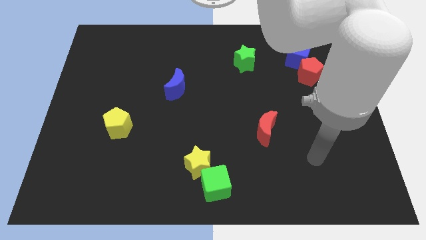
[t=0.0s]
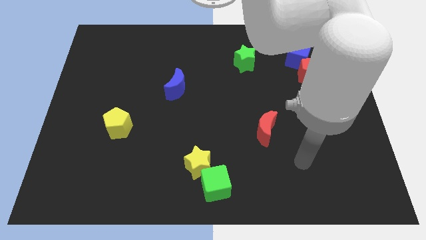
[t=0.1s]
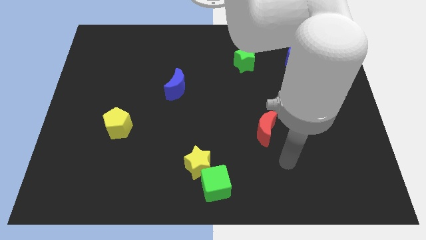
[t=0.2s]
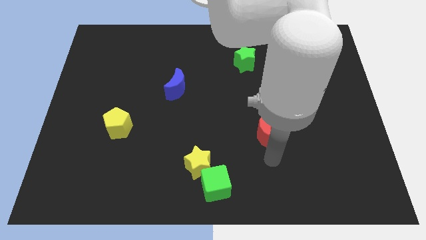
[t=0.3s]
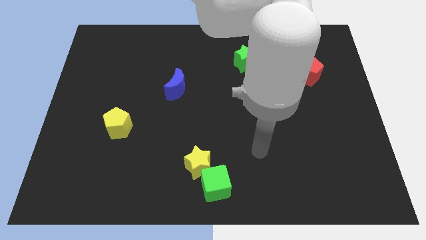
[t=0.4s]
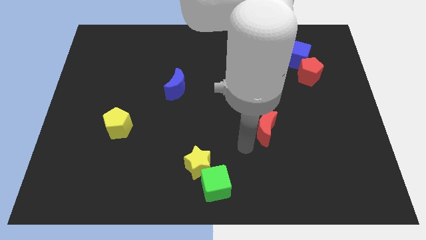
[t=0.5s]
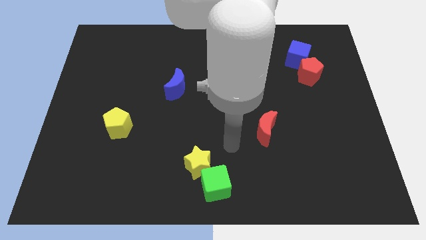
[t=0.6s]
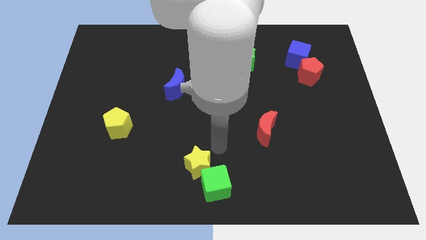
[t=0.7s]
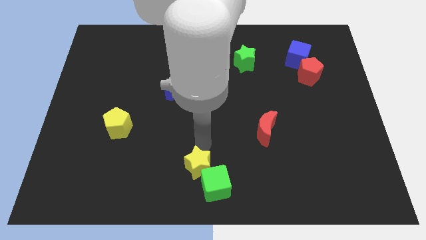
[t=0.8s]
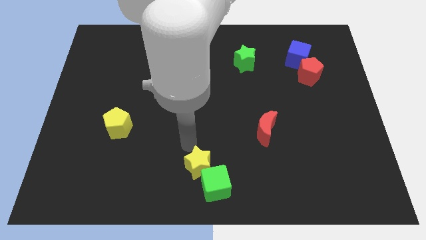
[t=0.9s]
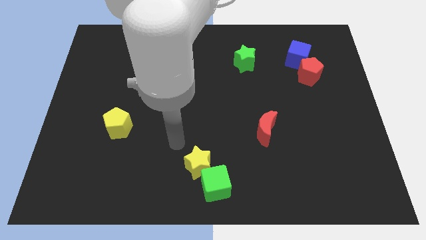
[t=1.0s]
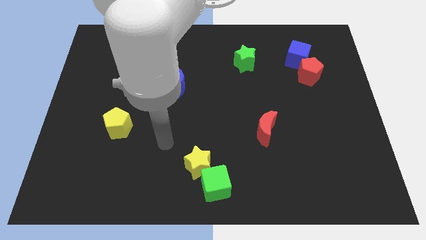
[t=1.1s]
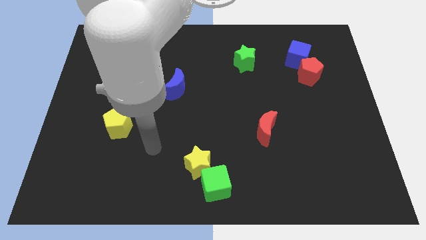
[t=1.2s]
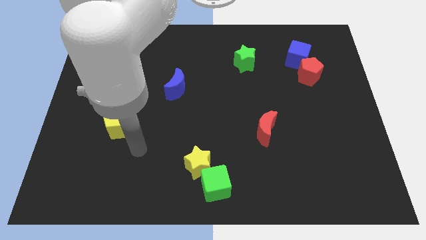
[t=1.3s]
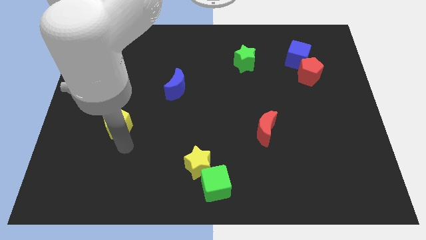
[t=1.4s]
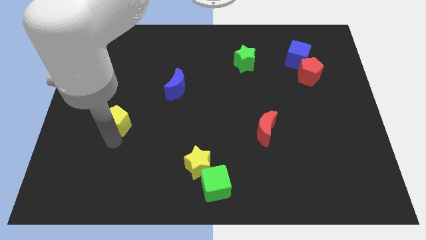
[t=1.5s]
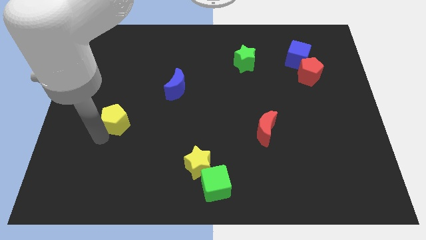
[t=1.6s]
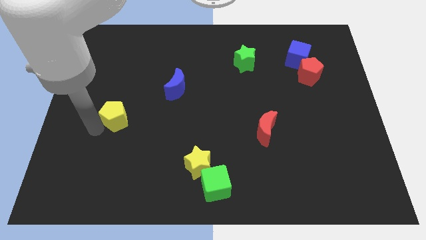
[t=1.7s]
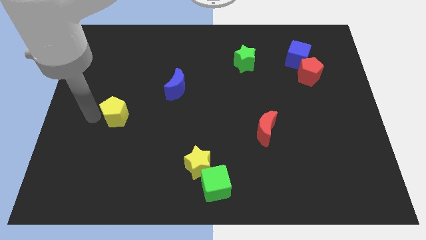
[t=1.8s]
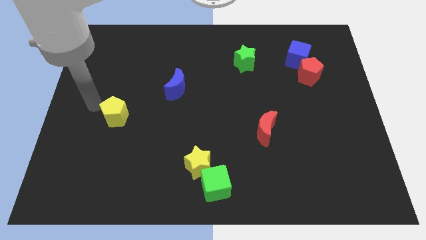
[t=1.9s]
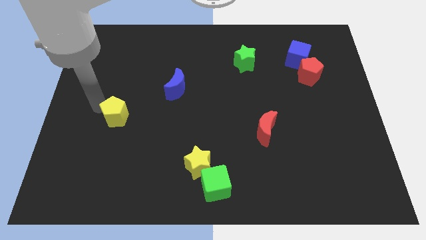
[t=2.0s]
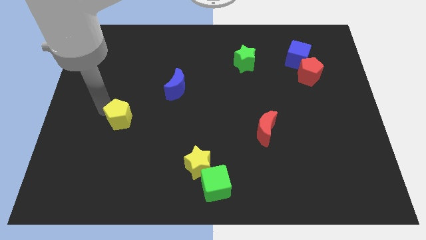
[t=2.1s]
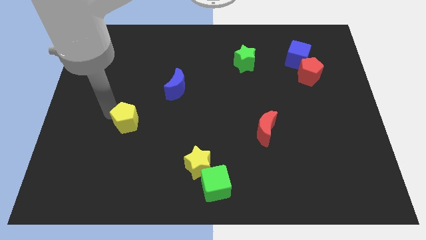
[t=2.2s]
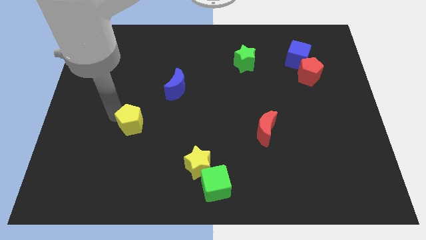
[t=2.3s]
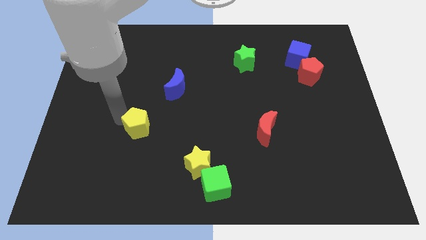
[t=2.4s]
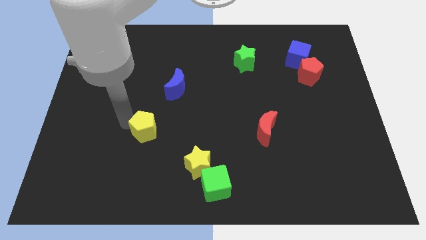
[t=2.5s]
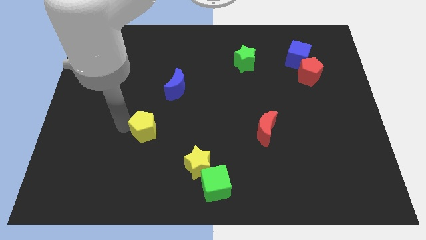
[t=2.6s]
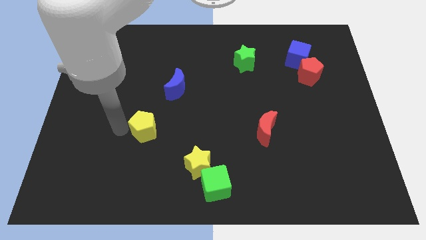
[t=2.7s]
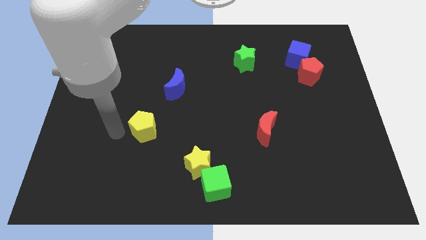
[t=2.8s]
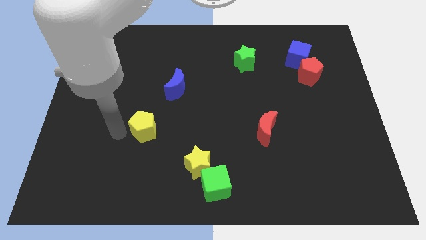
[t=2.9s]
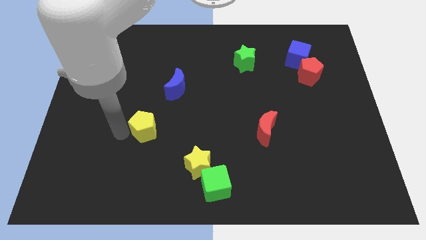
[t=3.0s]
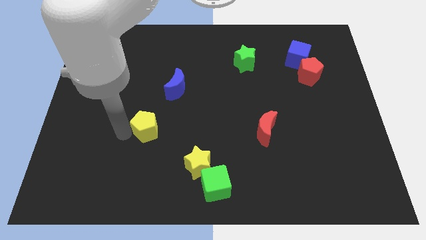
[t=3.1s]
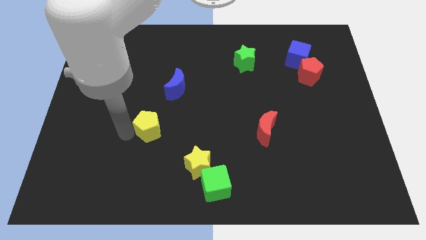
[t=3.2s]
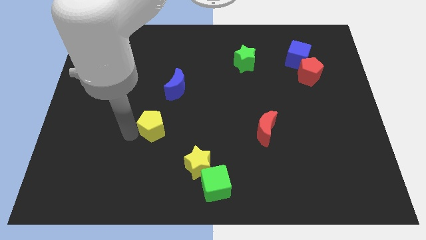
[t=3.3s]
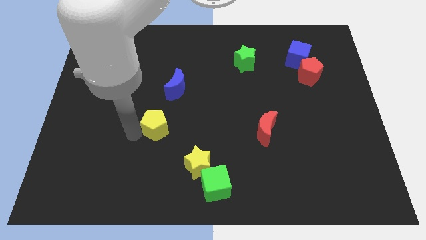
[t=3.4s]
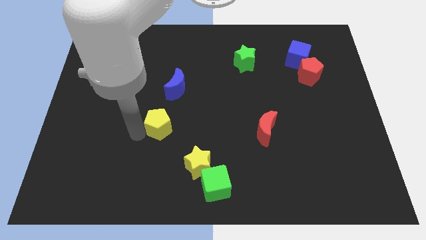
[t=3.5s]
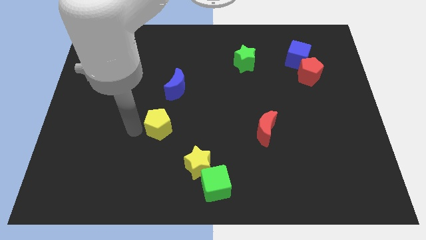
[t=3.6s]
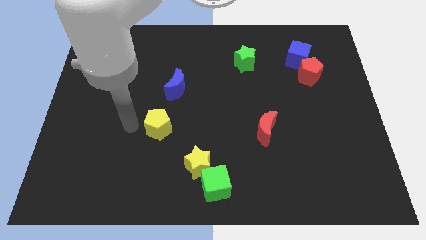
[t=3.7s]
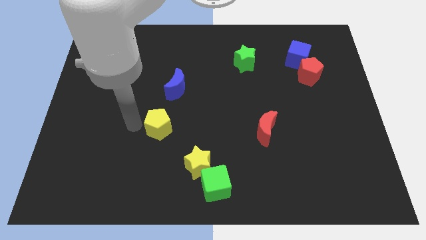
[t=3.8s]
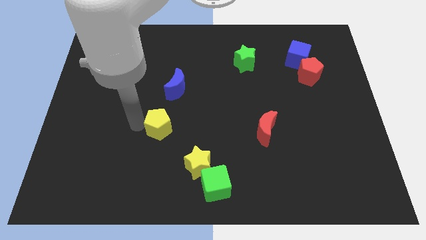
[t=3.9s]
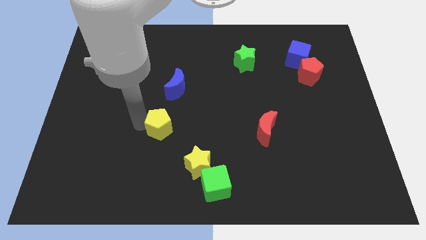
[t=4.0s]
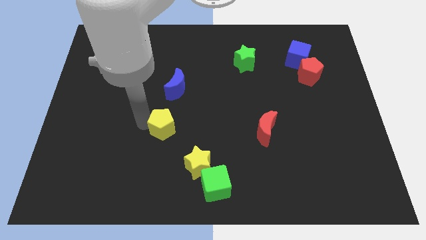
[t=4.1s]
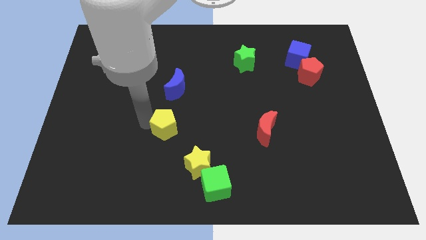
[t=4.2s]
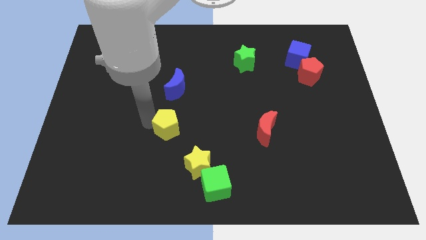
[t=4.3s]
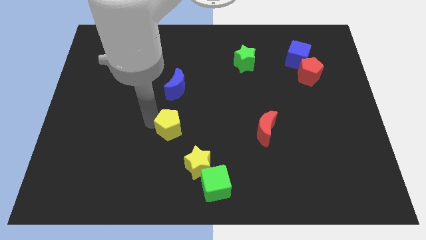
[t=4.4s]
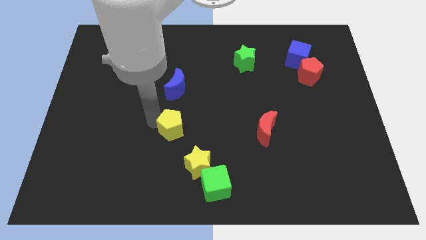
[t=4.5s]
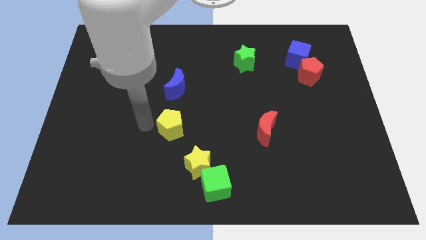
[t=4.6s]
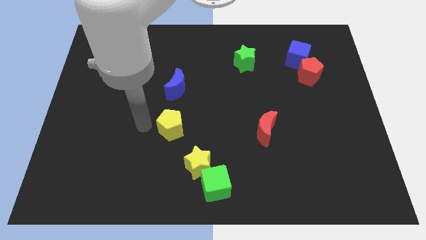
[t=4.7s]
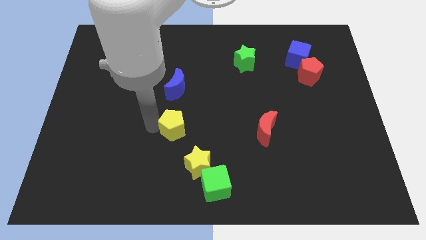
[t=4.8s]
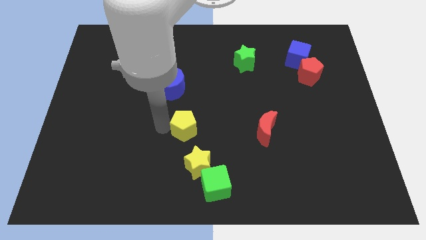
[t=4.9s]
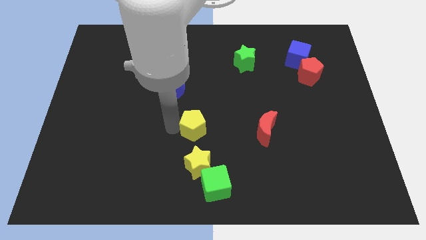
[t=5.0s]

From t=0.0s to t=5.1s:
push the yellow pentagon just left of the red moon

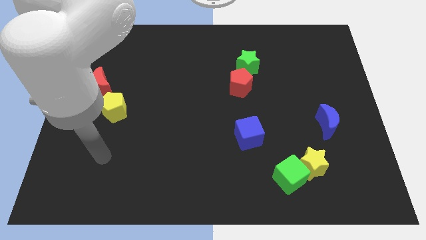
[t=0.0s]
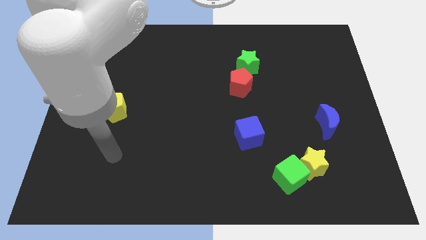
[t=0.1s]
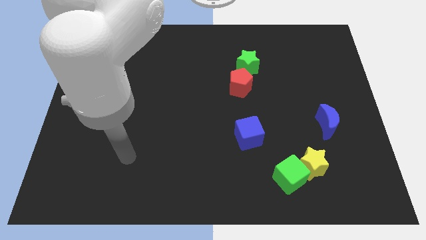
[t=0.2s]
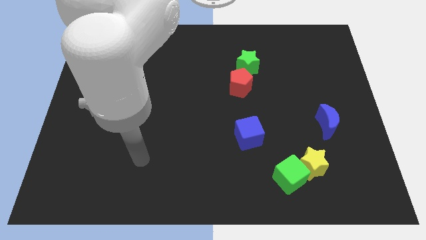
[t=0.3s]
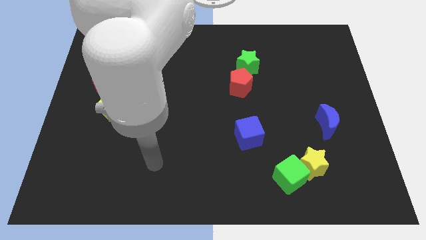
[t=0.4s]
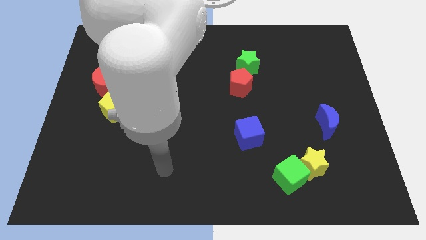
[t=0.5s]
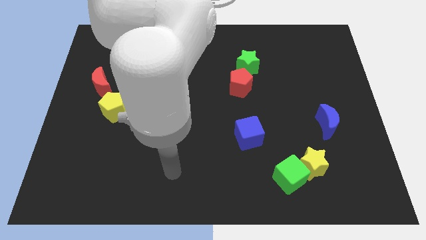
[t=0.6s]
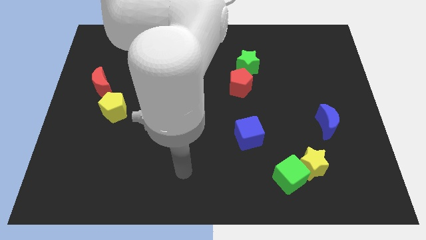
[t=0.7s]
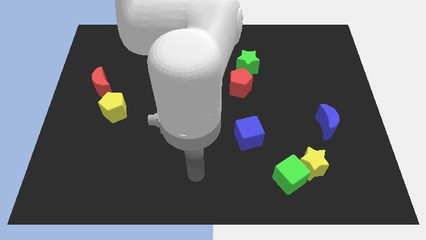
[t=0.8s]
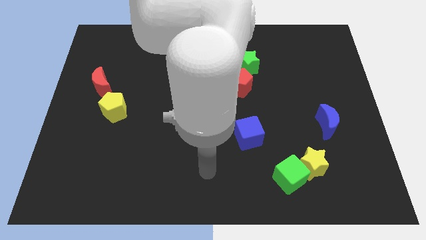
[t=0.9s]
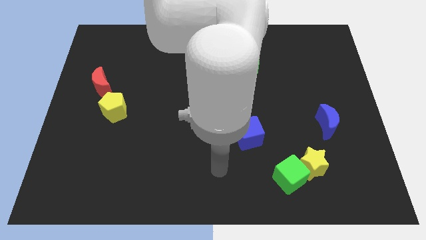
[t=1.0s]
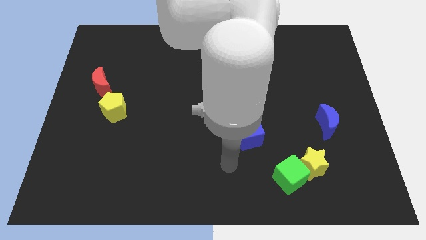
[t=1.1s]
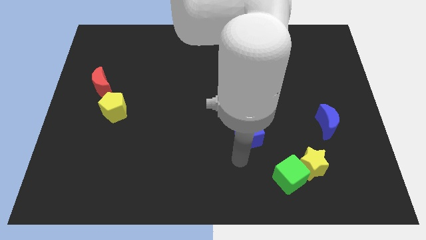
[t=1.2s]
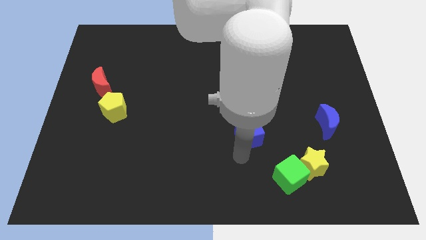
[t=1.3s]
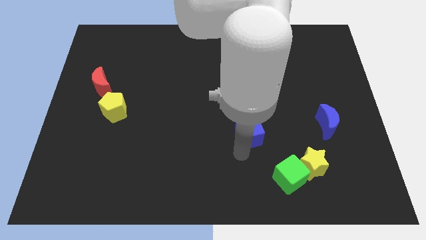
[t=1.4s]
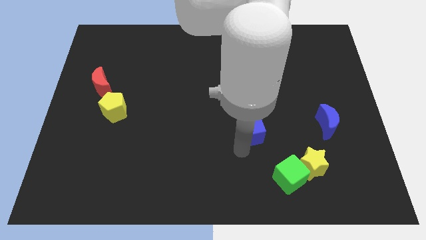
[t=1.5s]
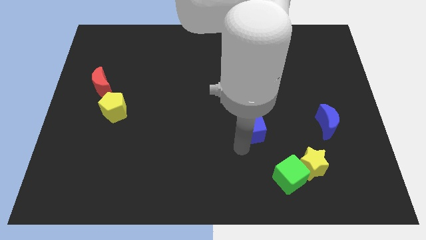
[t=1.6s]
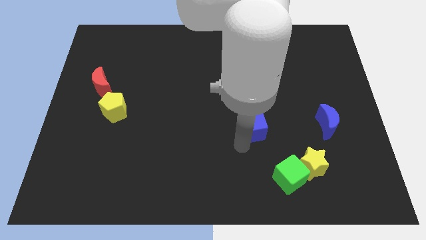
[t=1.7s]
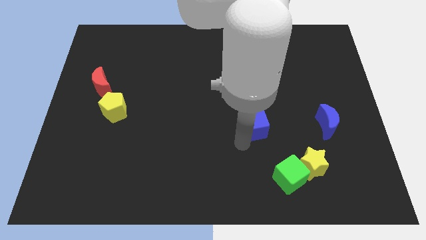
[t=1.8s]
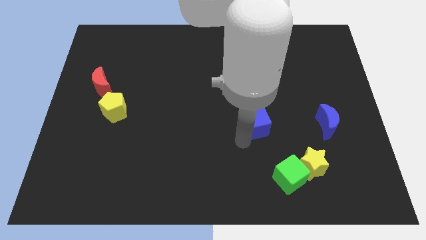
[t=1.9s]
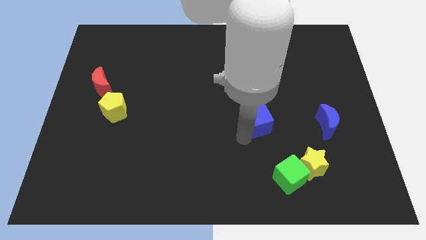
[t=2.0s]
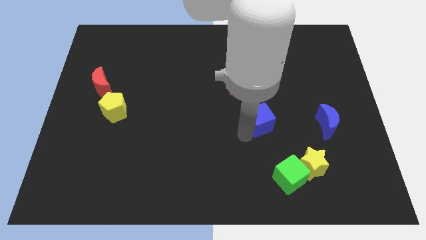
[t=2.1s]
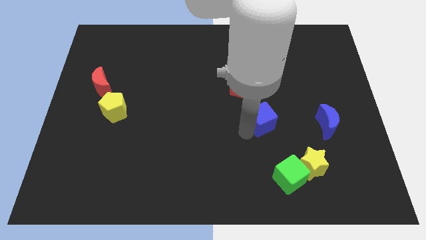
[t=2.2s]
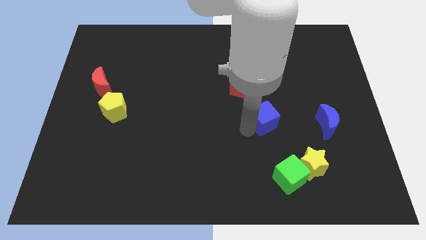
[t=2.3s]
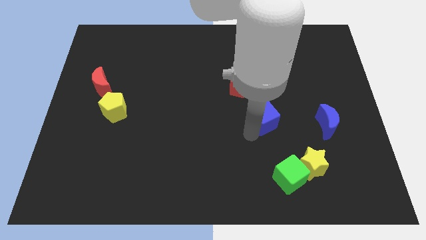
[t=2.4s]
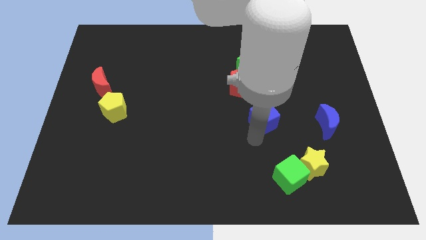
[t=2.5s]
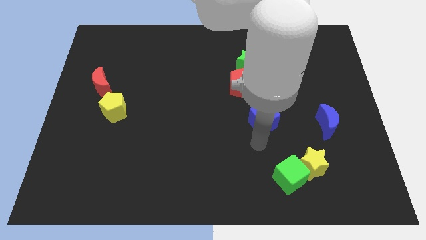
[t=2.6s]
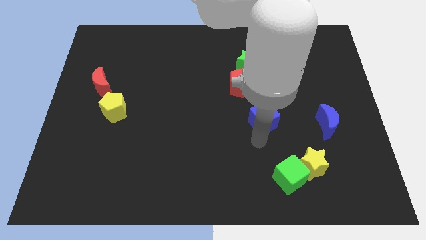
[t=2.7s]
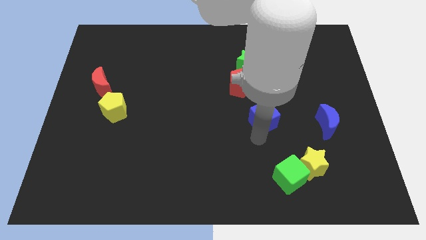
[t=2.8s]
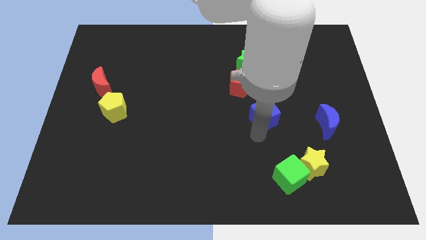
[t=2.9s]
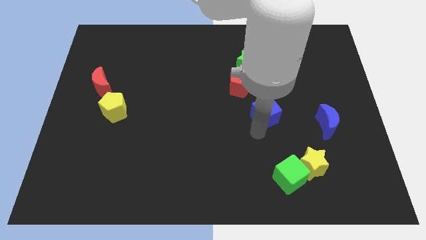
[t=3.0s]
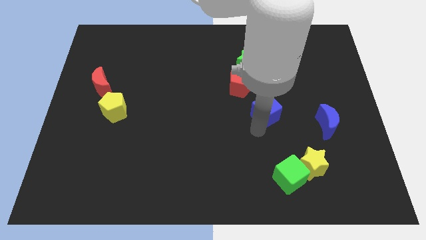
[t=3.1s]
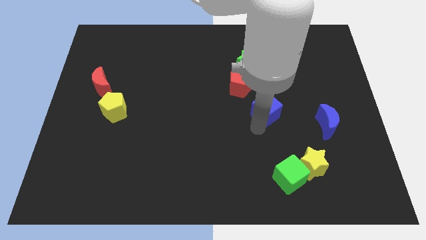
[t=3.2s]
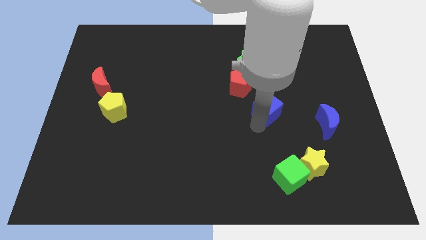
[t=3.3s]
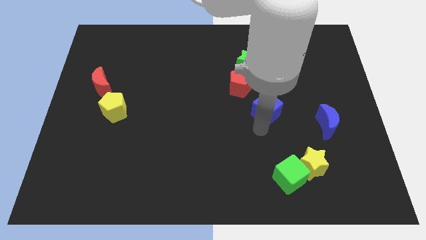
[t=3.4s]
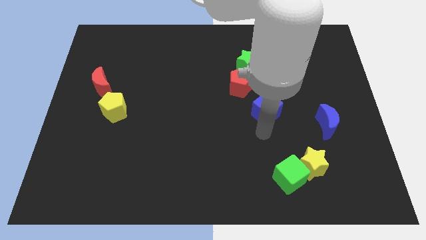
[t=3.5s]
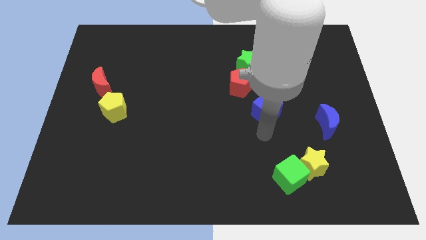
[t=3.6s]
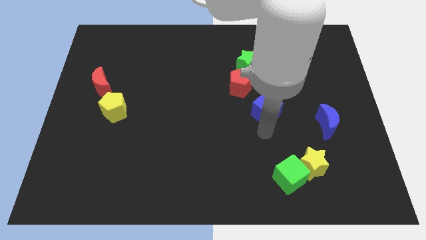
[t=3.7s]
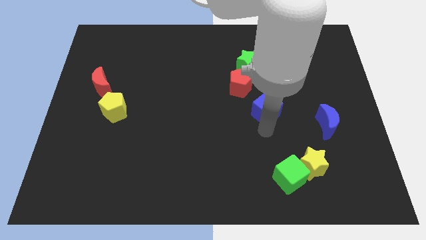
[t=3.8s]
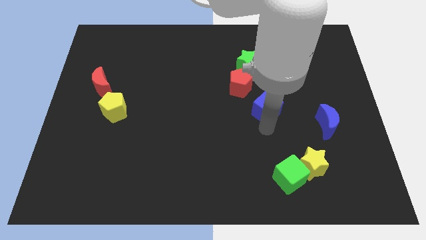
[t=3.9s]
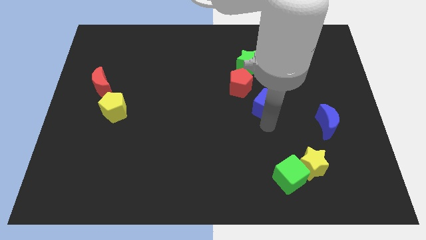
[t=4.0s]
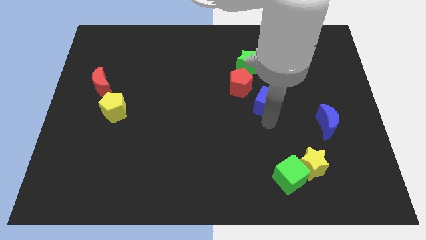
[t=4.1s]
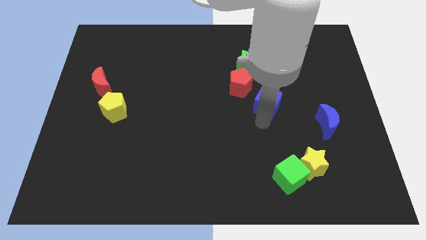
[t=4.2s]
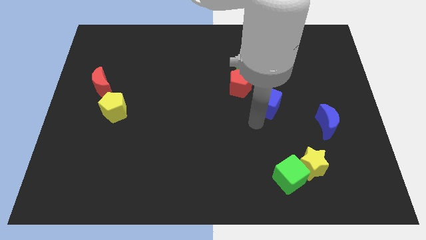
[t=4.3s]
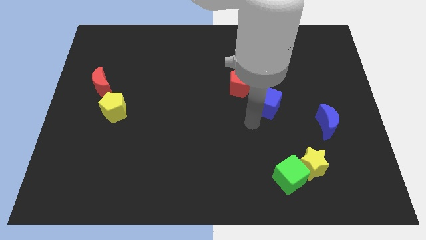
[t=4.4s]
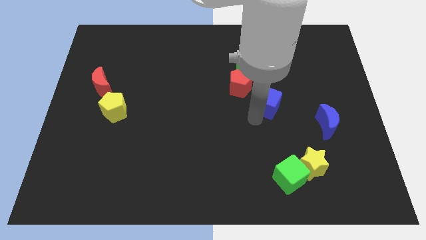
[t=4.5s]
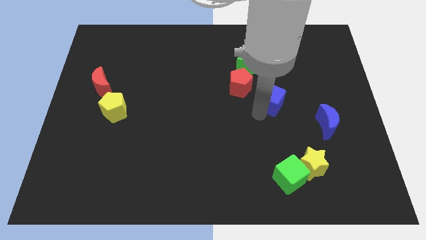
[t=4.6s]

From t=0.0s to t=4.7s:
slide the blue cube just right of the red pentagon
